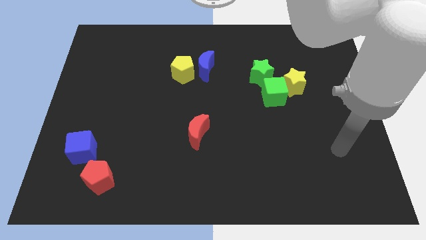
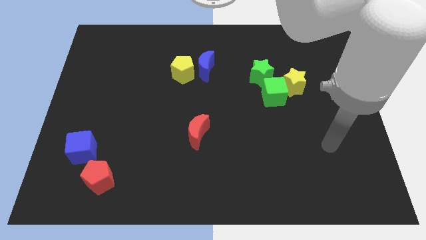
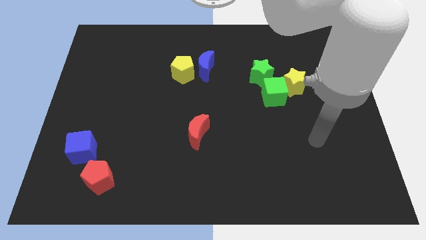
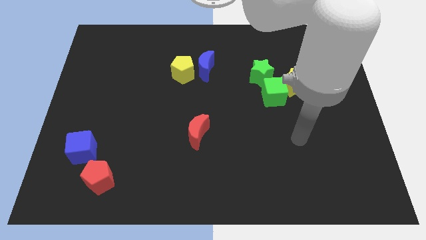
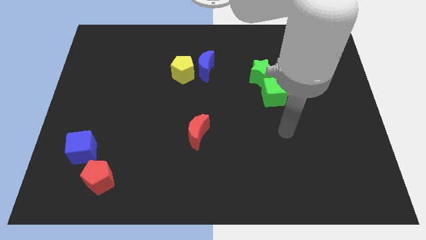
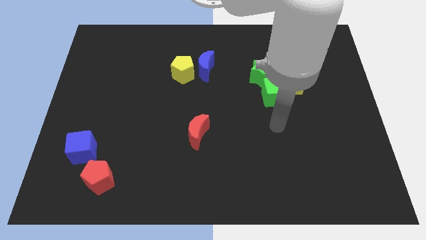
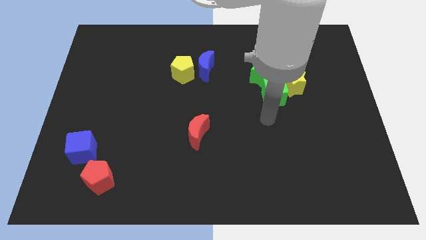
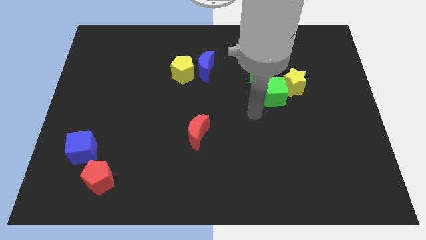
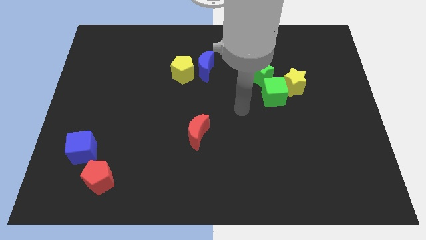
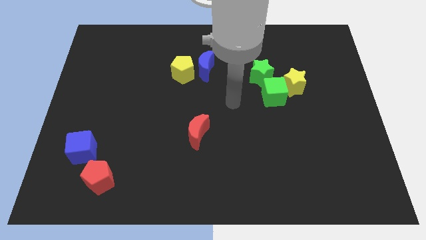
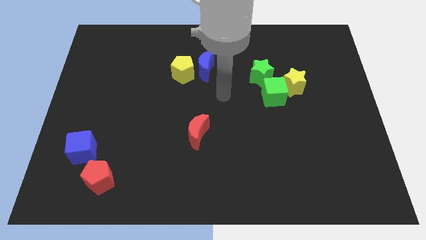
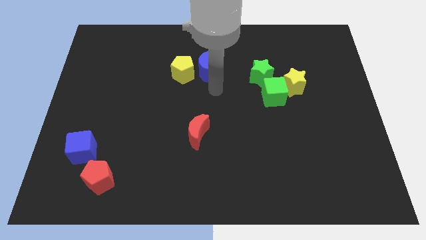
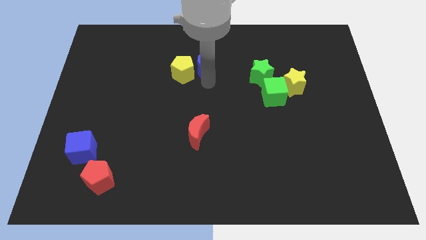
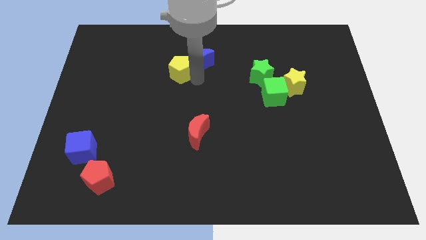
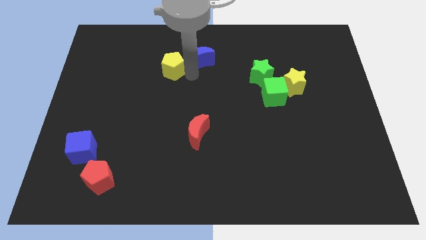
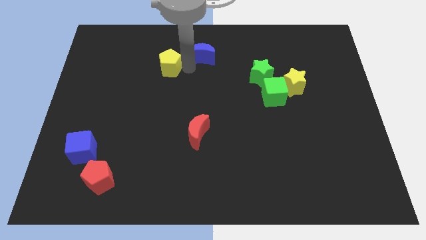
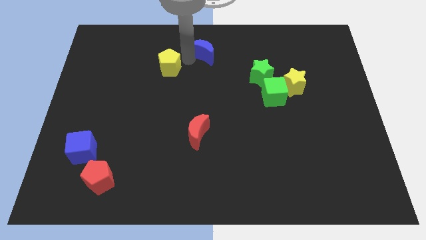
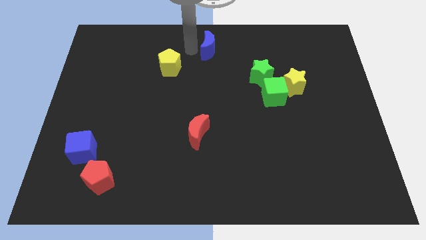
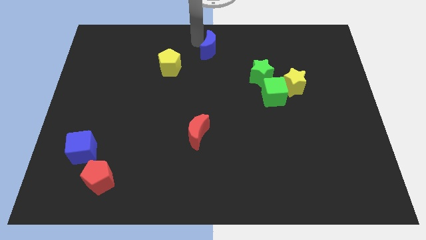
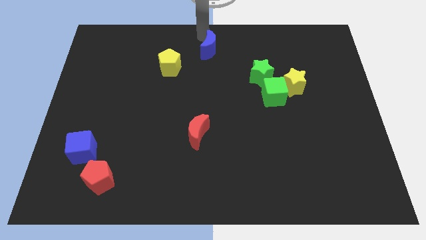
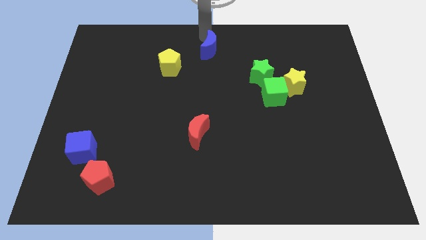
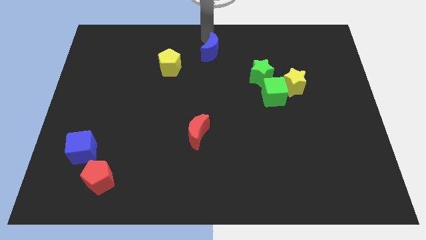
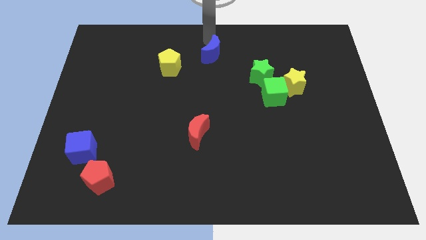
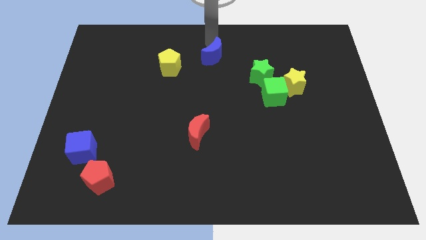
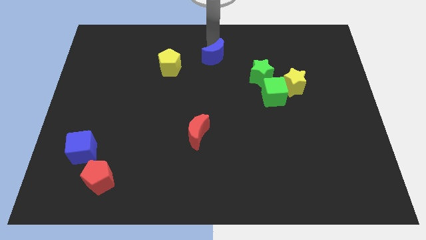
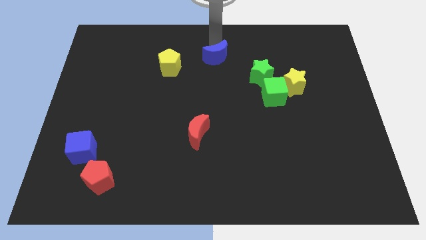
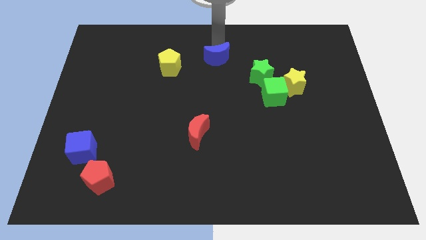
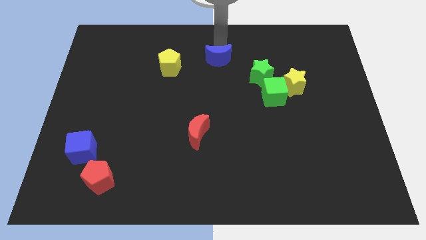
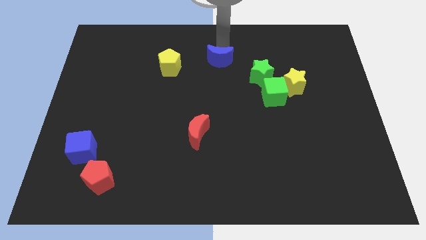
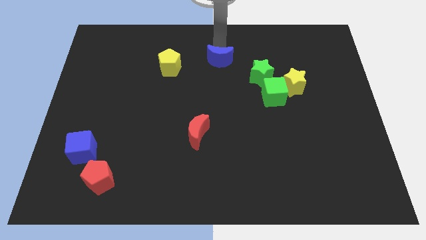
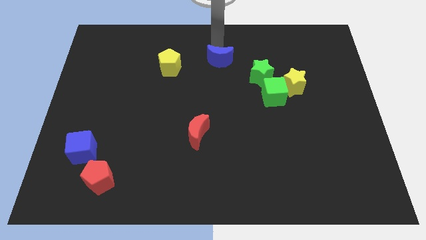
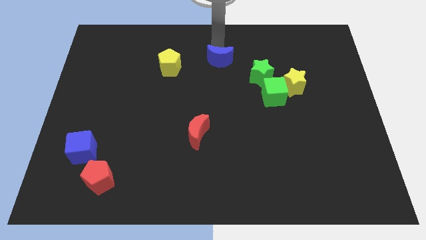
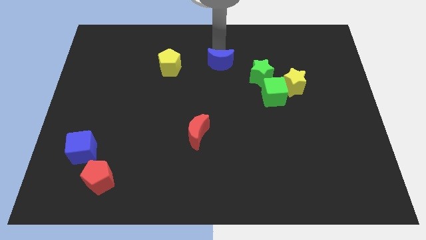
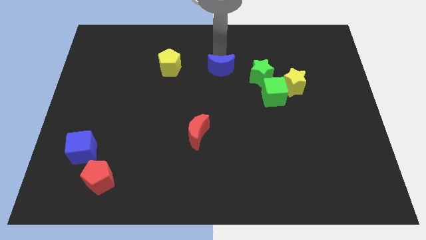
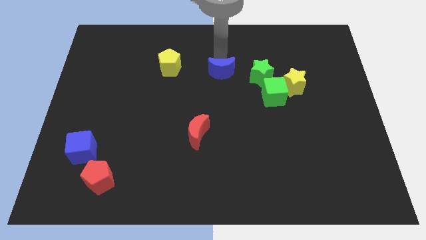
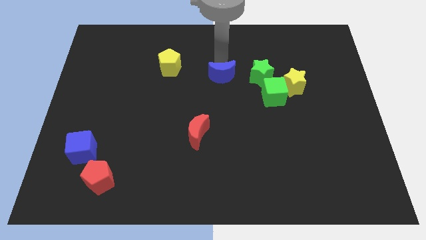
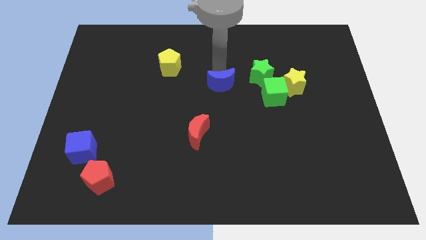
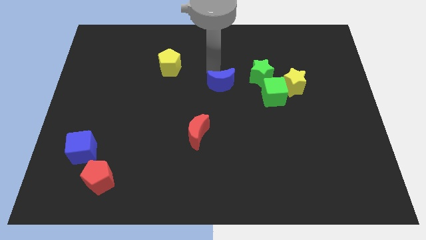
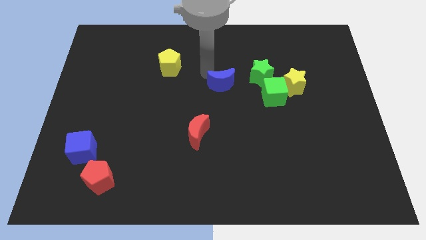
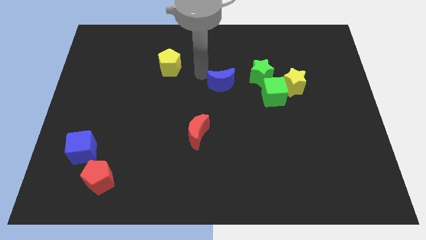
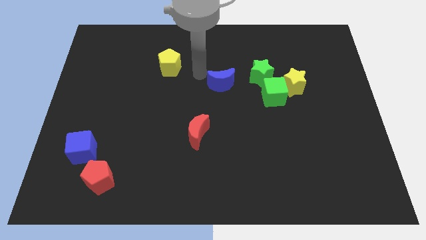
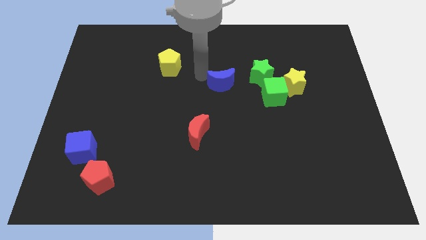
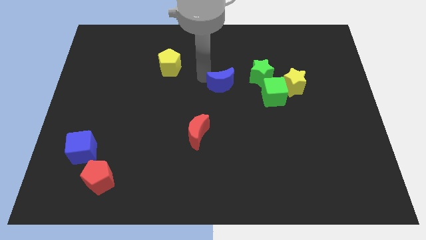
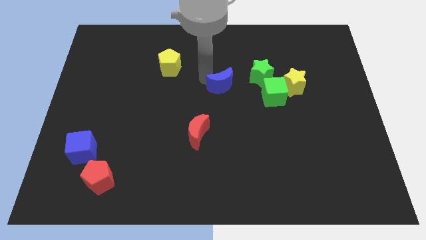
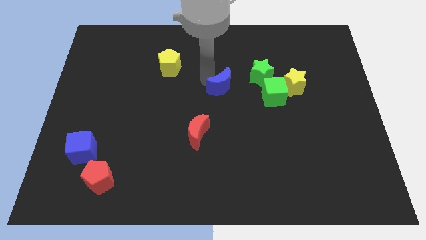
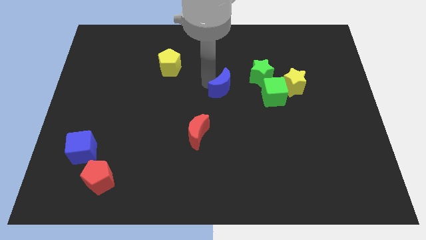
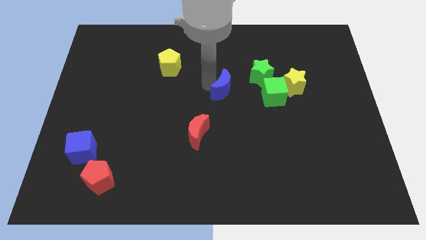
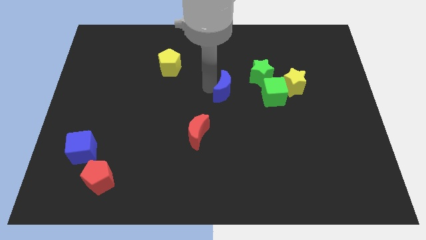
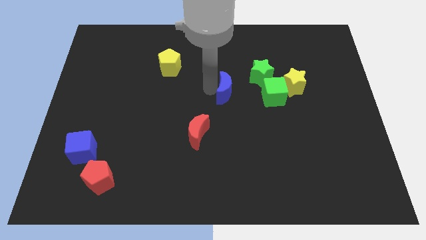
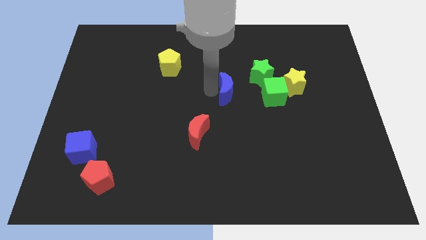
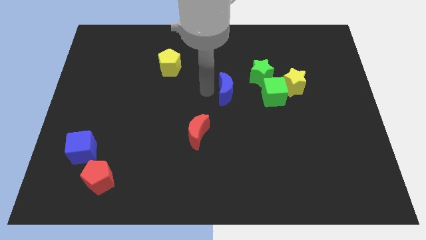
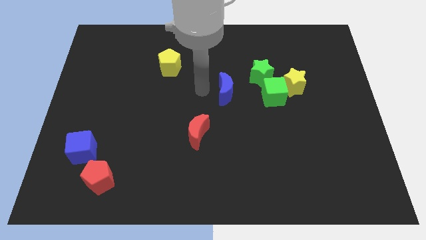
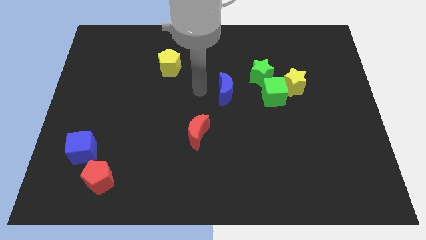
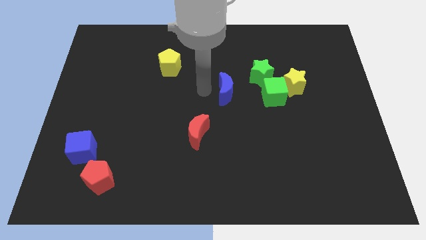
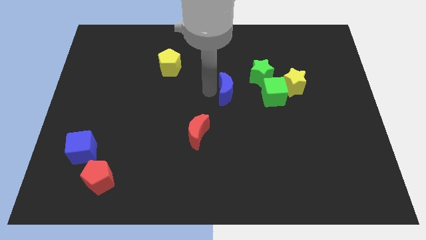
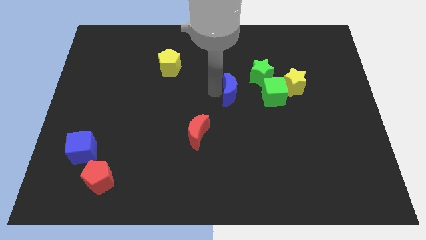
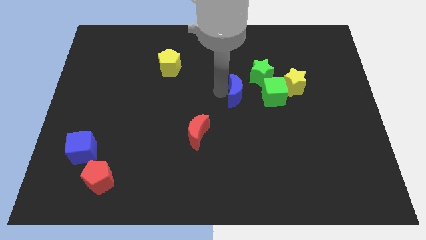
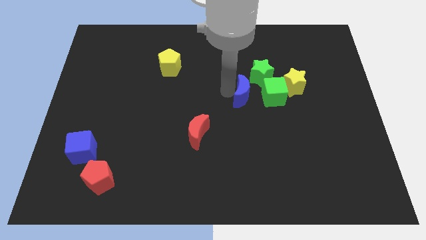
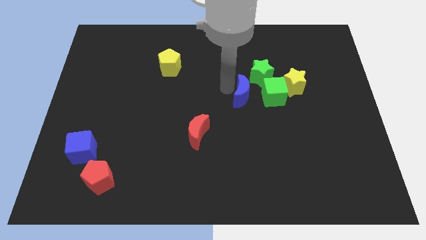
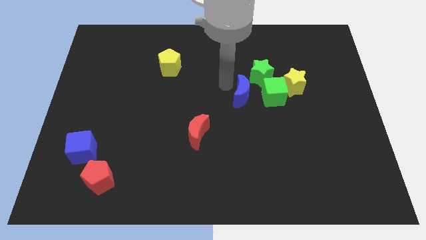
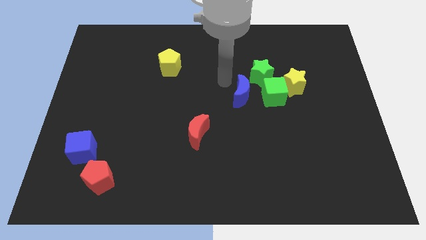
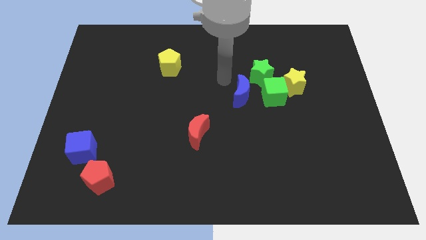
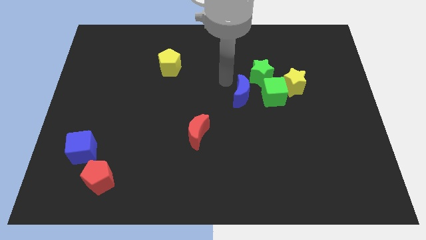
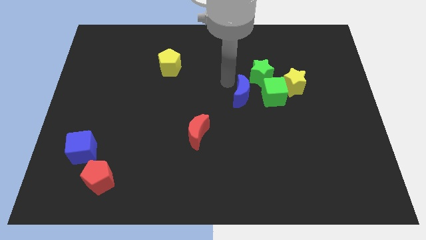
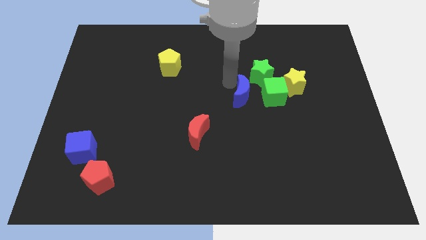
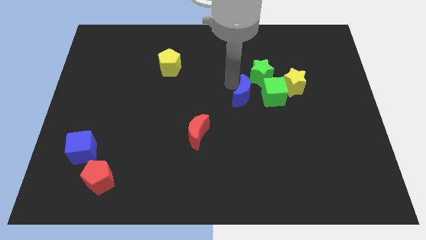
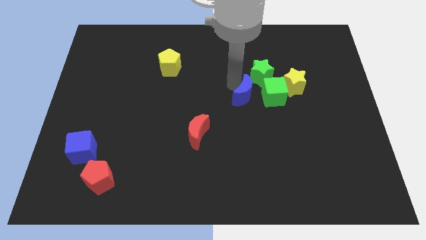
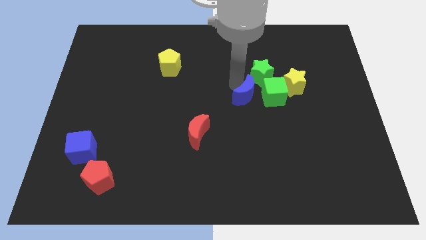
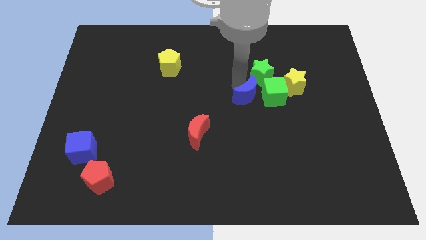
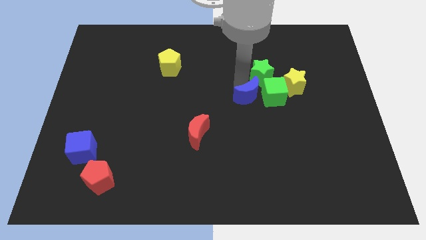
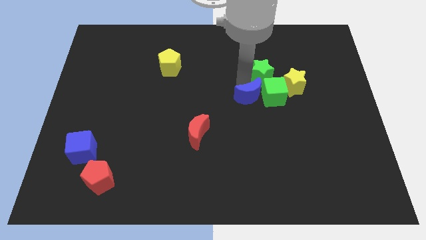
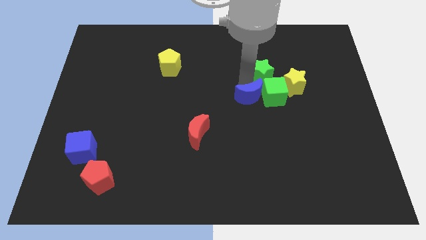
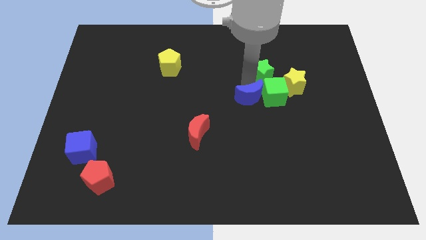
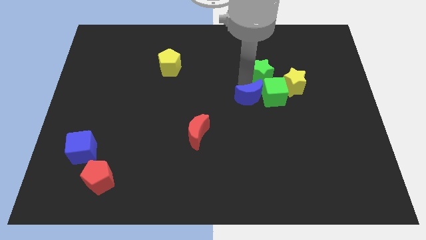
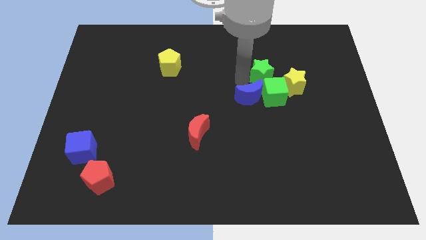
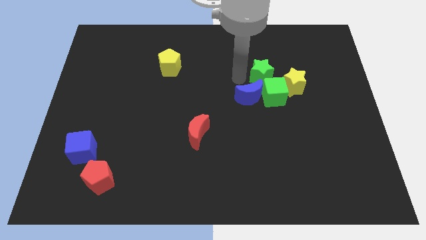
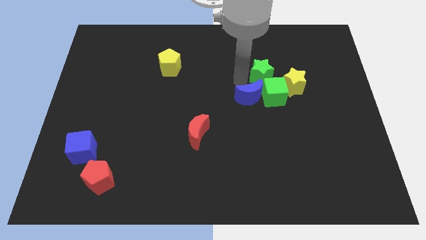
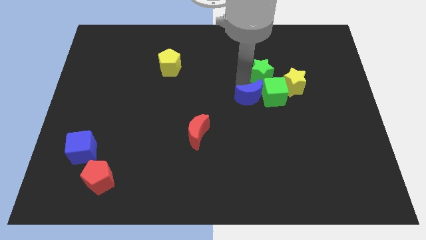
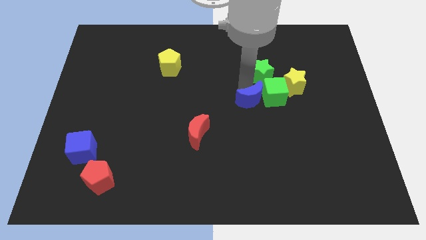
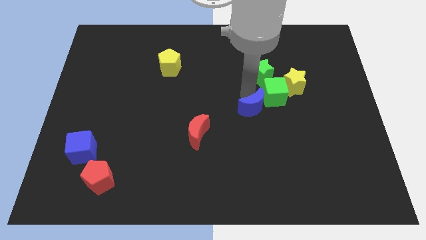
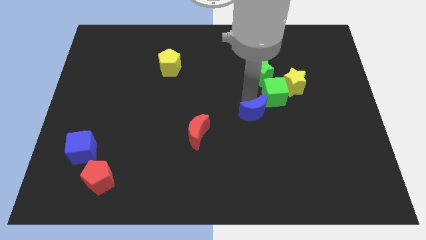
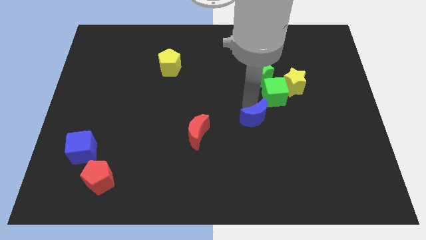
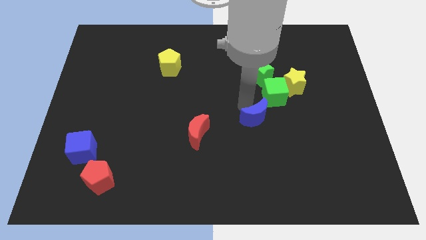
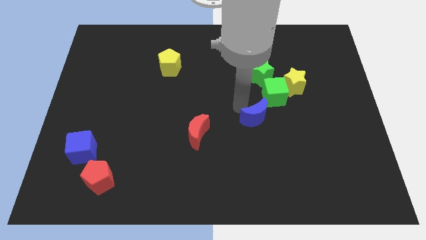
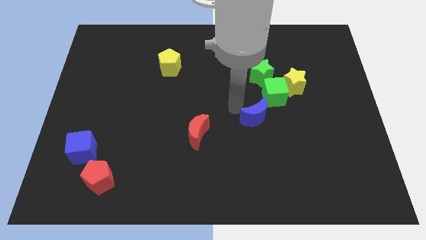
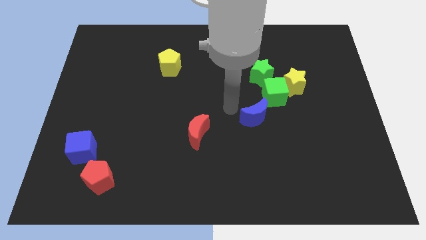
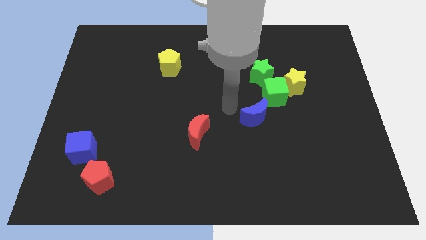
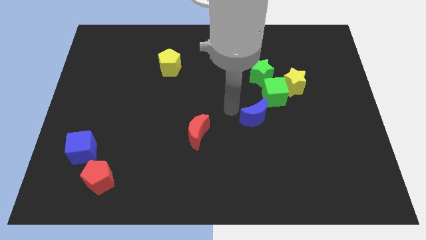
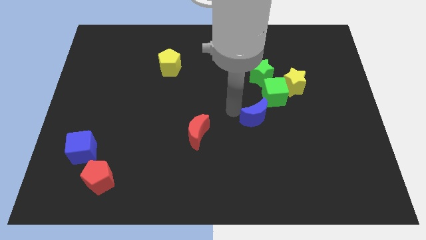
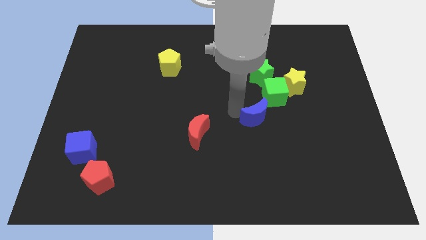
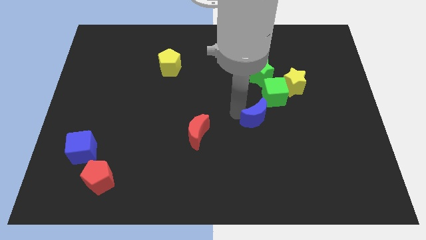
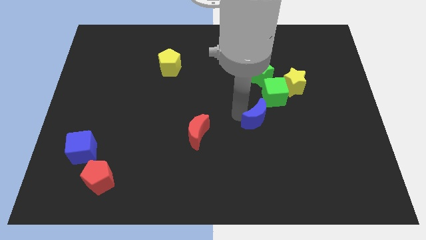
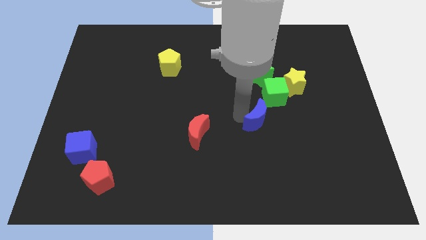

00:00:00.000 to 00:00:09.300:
slide the blue moon downwards and then right
